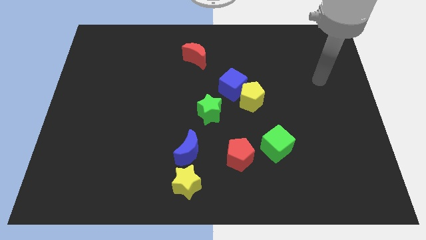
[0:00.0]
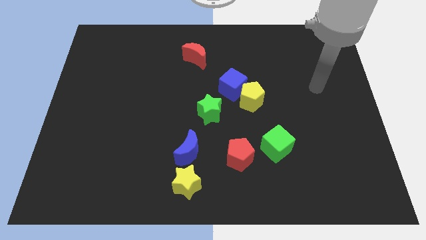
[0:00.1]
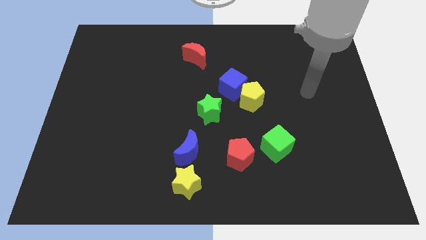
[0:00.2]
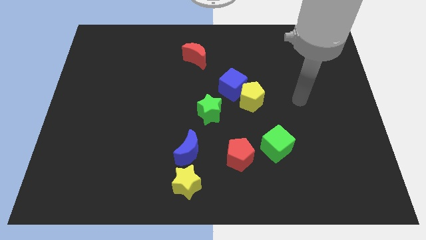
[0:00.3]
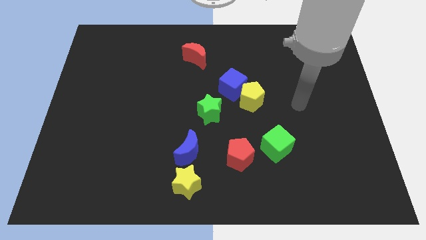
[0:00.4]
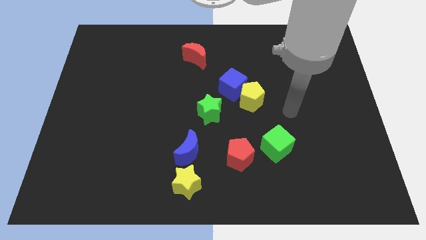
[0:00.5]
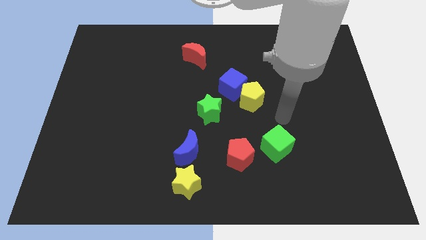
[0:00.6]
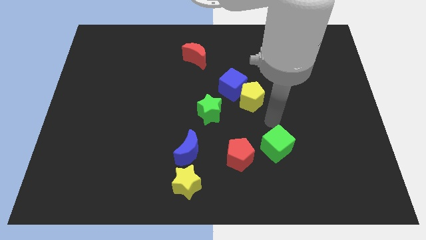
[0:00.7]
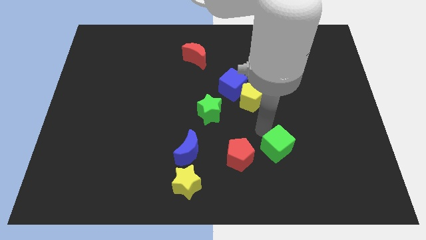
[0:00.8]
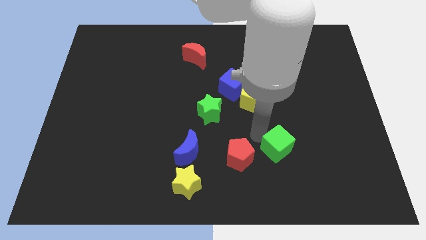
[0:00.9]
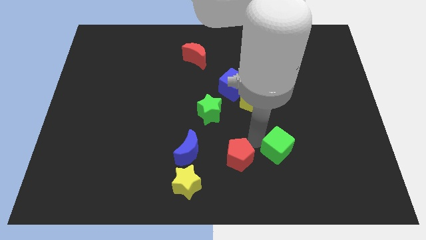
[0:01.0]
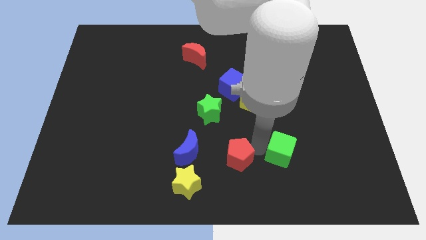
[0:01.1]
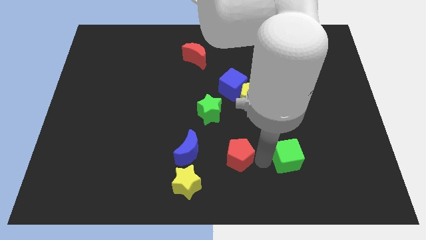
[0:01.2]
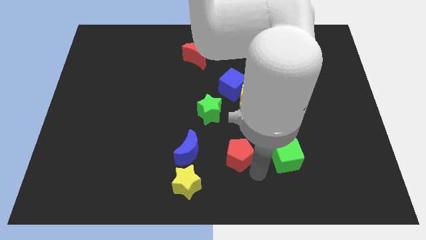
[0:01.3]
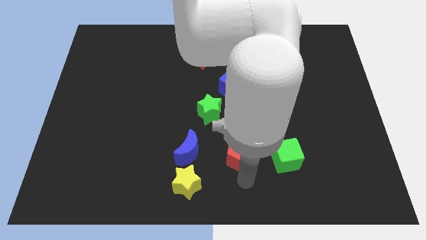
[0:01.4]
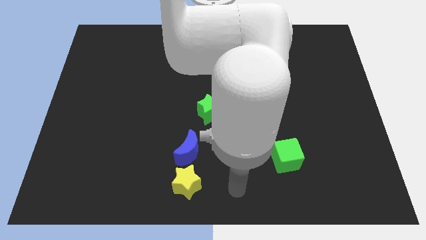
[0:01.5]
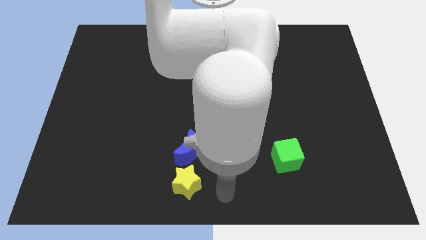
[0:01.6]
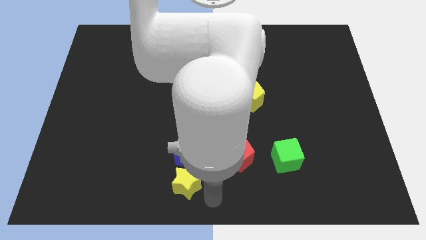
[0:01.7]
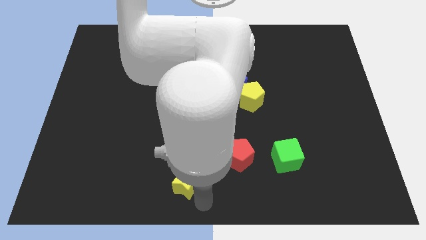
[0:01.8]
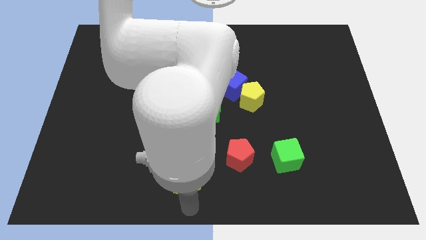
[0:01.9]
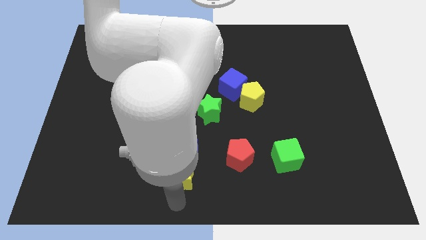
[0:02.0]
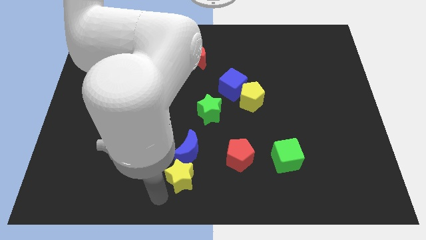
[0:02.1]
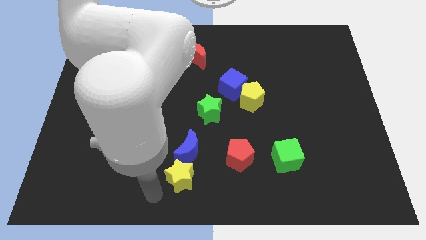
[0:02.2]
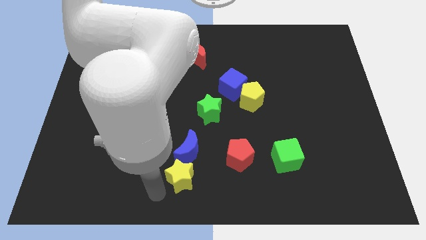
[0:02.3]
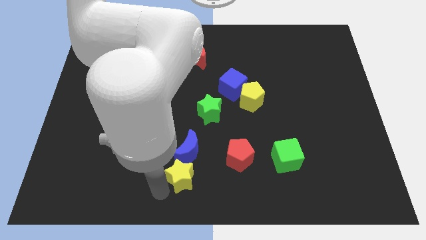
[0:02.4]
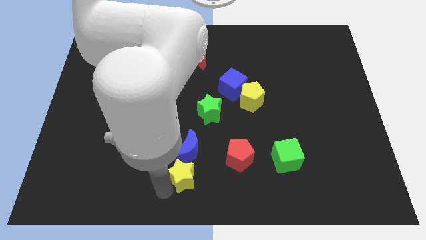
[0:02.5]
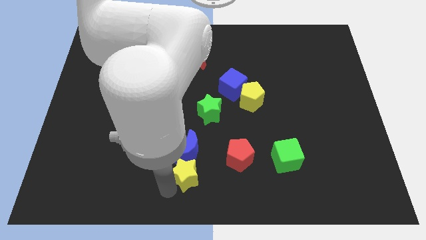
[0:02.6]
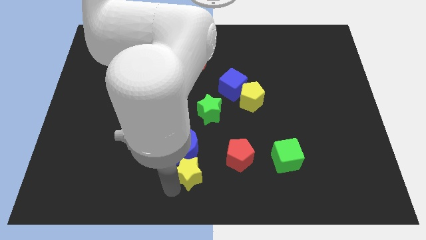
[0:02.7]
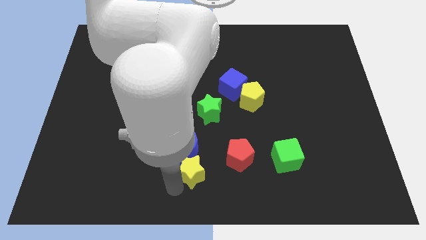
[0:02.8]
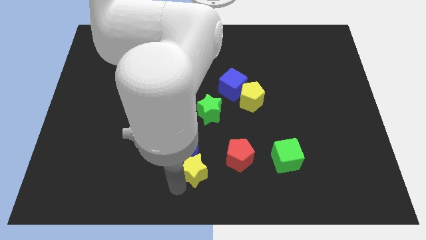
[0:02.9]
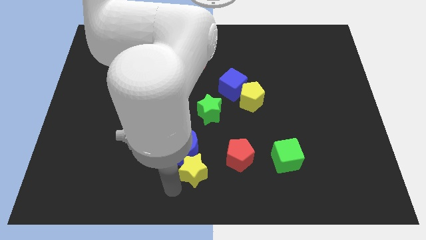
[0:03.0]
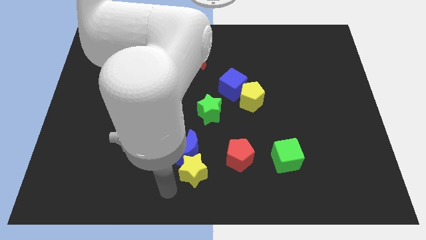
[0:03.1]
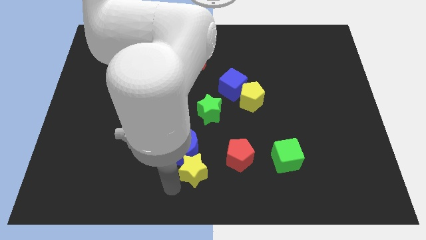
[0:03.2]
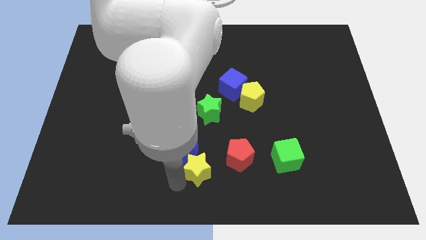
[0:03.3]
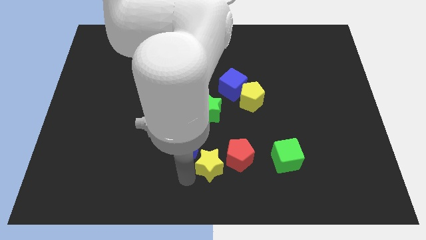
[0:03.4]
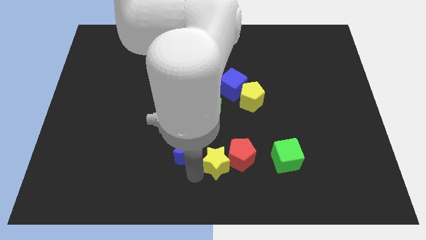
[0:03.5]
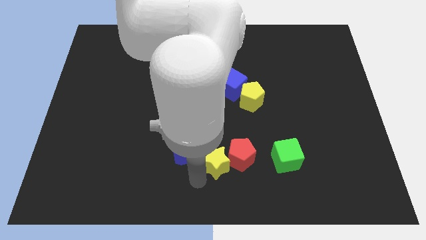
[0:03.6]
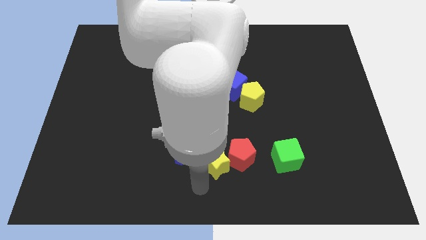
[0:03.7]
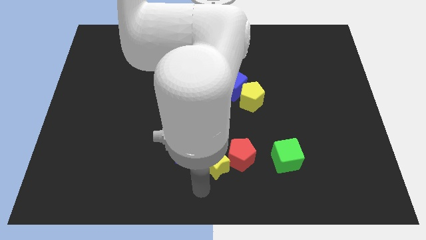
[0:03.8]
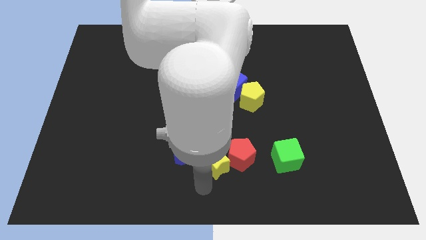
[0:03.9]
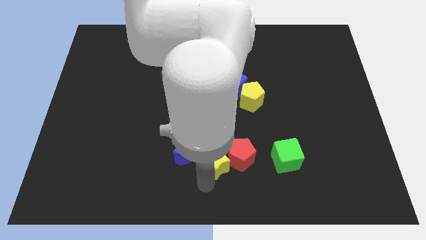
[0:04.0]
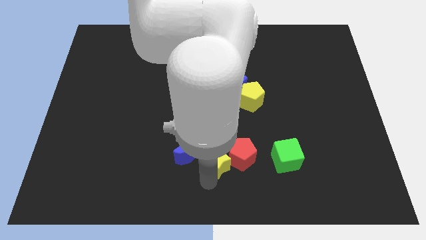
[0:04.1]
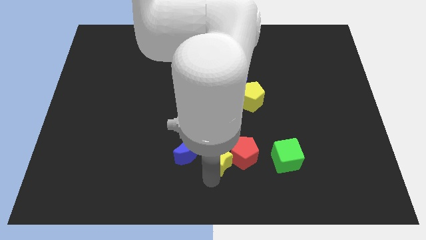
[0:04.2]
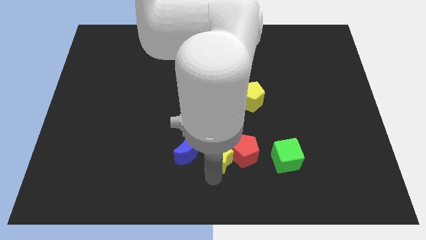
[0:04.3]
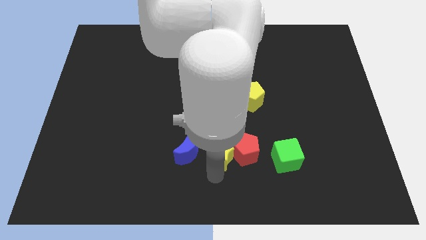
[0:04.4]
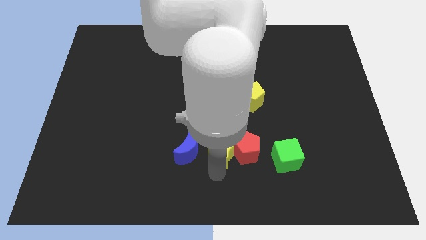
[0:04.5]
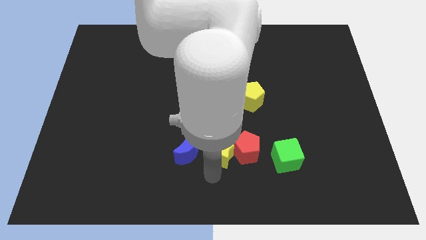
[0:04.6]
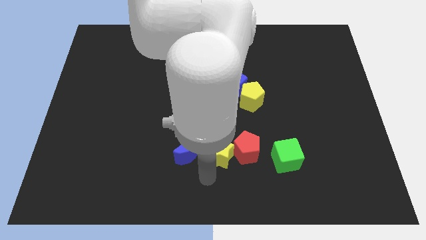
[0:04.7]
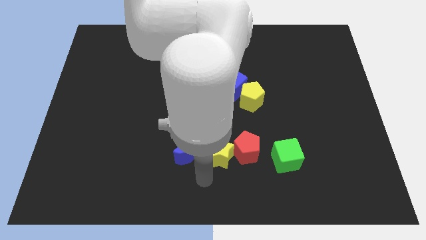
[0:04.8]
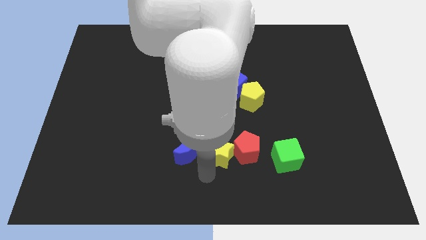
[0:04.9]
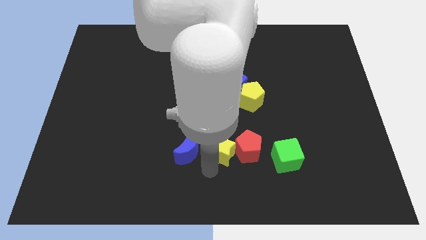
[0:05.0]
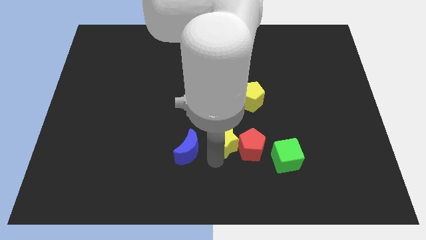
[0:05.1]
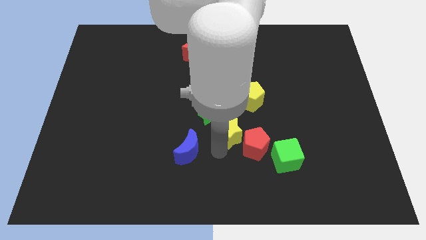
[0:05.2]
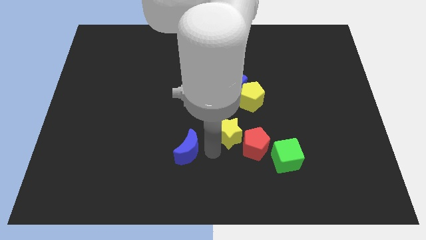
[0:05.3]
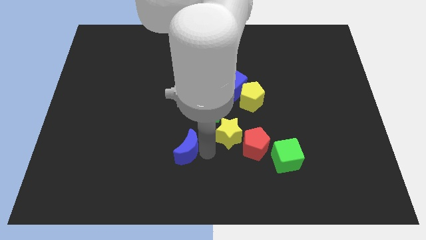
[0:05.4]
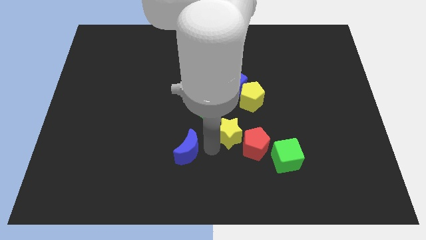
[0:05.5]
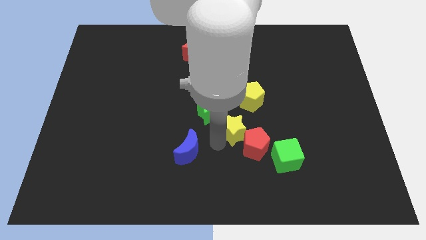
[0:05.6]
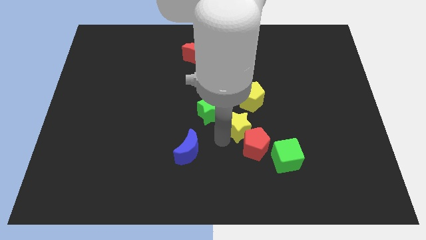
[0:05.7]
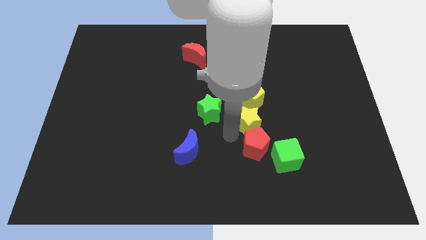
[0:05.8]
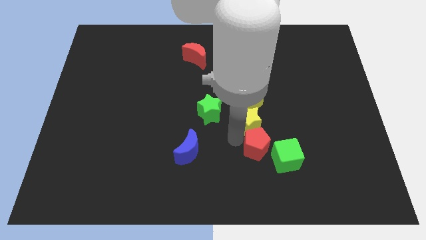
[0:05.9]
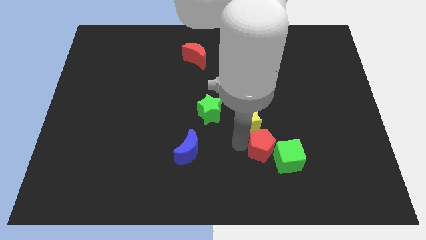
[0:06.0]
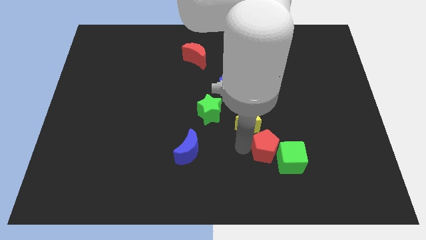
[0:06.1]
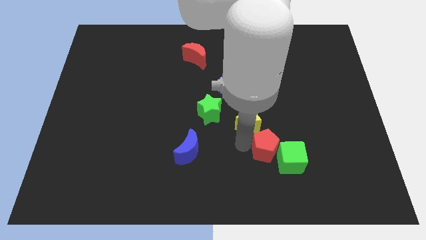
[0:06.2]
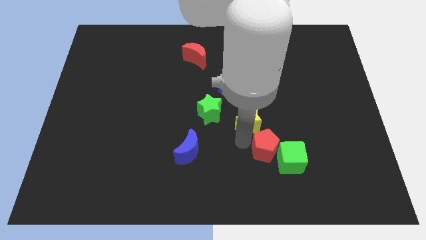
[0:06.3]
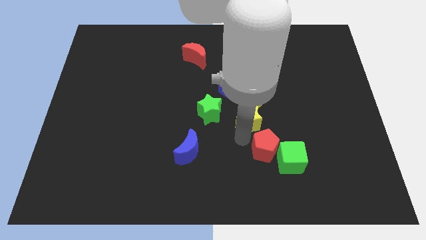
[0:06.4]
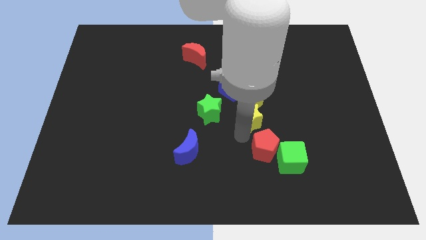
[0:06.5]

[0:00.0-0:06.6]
slide the yellow star towards the yellow pentagon
